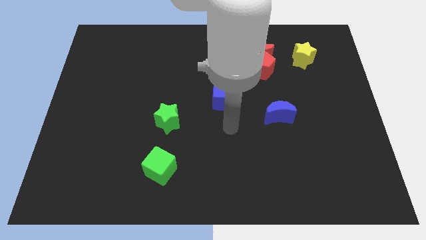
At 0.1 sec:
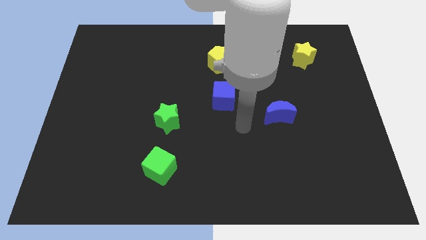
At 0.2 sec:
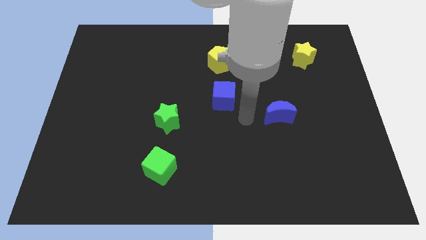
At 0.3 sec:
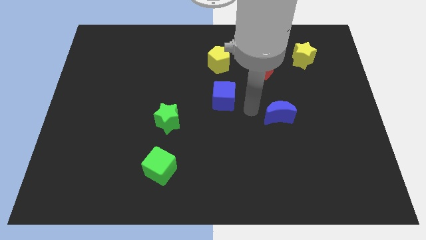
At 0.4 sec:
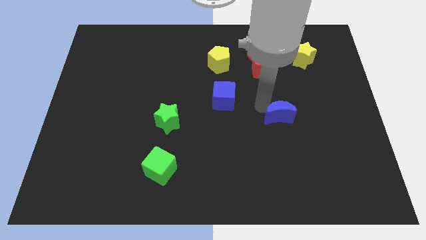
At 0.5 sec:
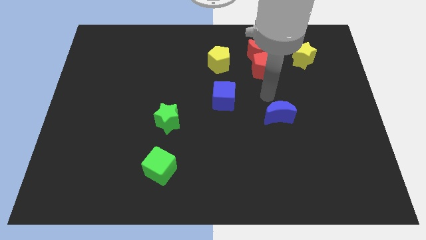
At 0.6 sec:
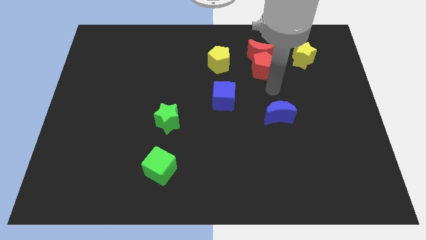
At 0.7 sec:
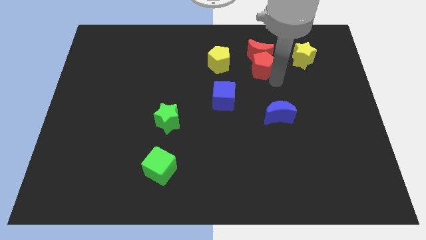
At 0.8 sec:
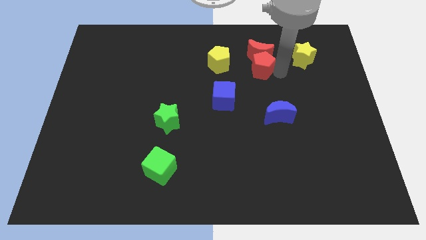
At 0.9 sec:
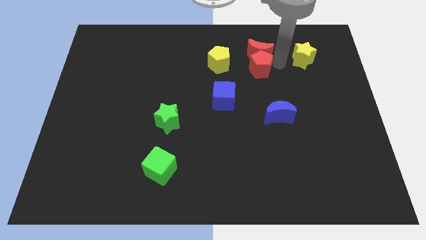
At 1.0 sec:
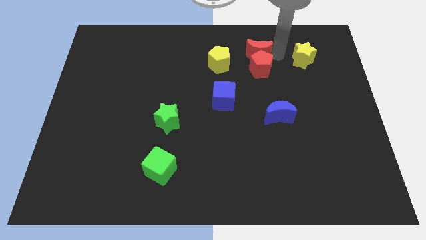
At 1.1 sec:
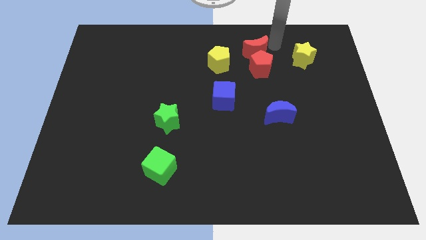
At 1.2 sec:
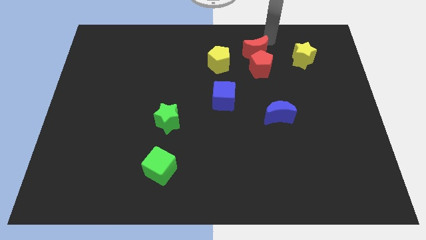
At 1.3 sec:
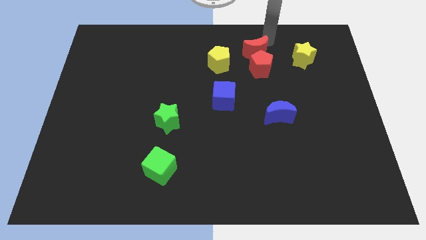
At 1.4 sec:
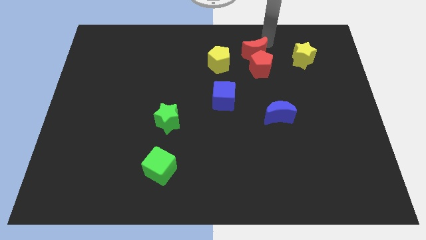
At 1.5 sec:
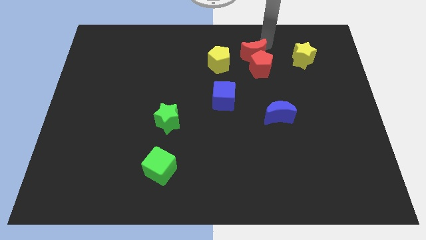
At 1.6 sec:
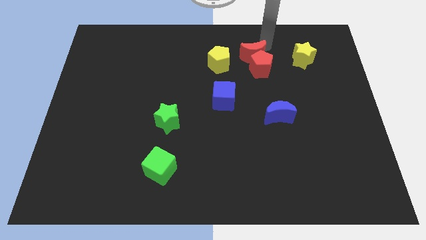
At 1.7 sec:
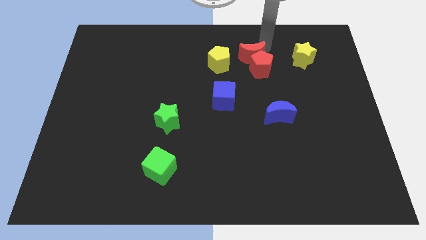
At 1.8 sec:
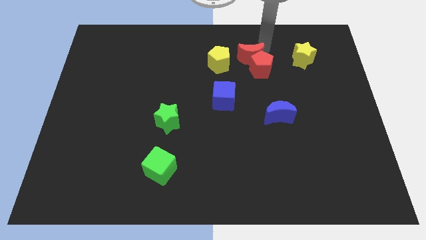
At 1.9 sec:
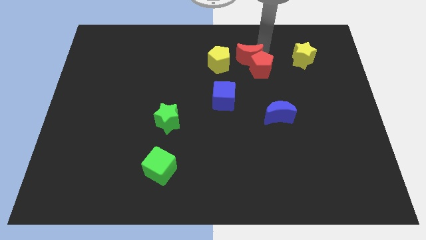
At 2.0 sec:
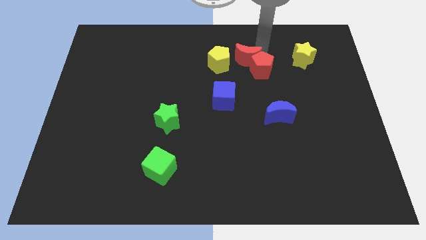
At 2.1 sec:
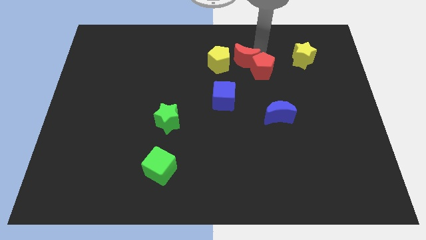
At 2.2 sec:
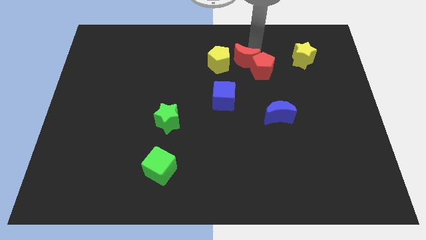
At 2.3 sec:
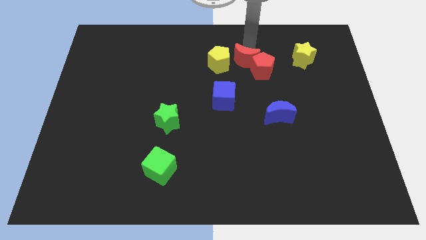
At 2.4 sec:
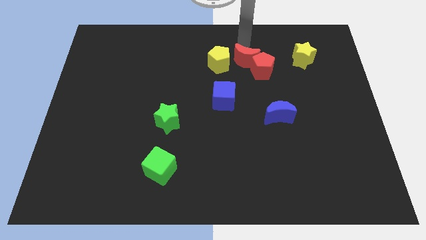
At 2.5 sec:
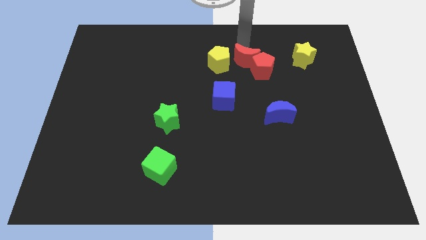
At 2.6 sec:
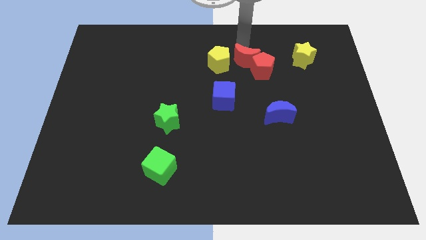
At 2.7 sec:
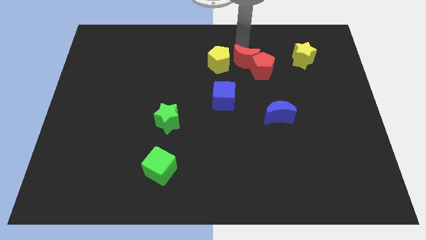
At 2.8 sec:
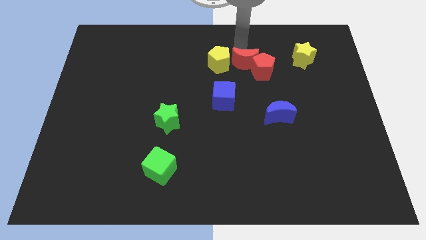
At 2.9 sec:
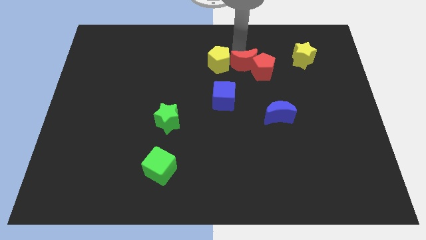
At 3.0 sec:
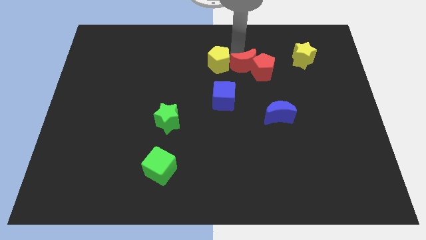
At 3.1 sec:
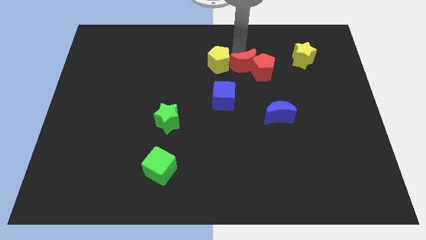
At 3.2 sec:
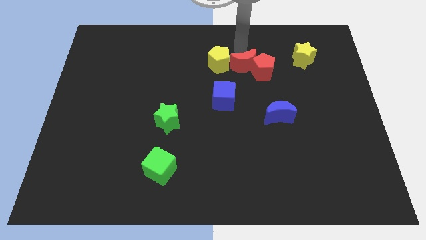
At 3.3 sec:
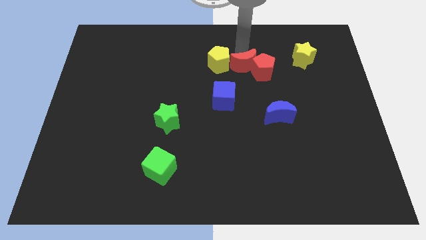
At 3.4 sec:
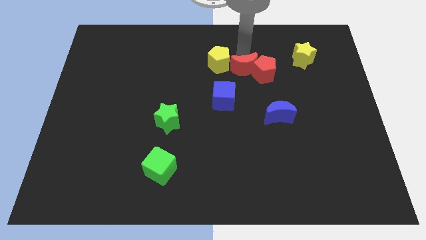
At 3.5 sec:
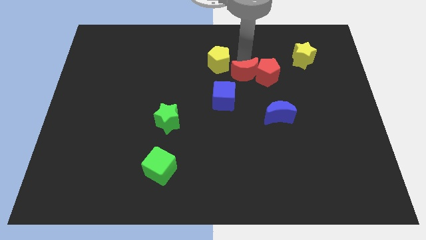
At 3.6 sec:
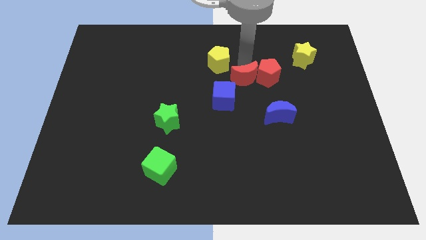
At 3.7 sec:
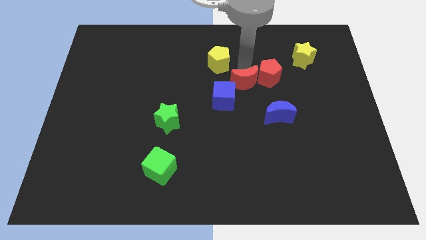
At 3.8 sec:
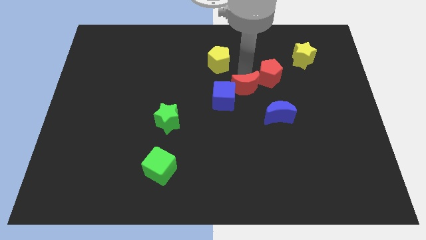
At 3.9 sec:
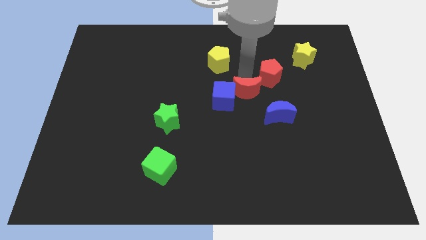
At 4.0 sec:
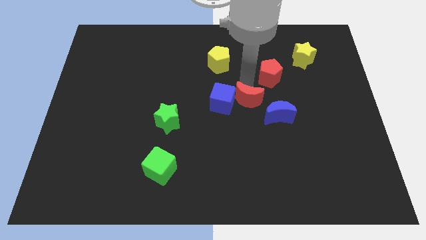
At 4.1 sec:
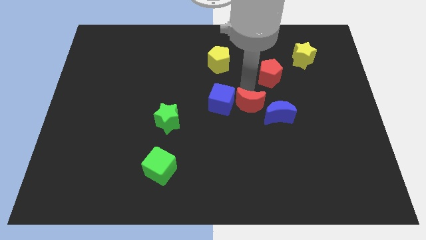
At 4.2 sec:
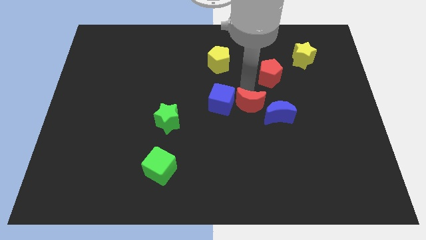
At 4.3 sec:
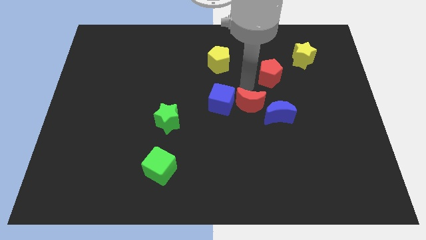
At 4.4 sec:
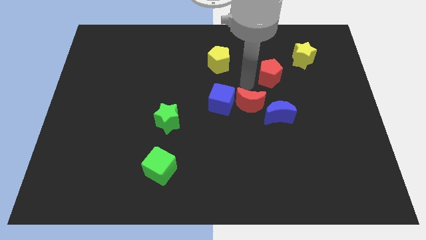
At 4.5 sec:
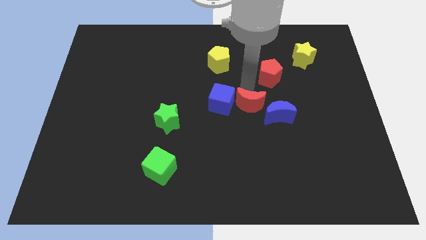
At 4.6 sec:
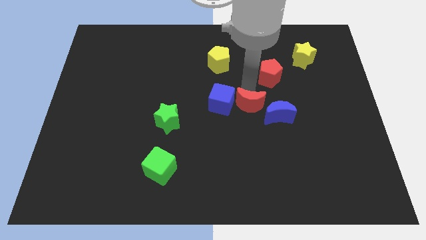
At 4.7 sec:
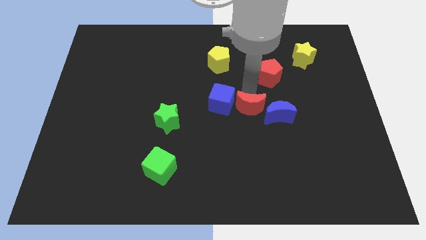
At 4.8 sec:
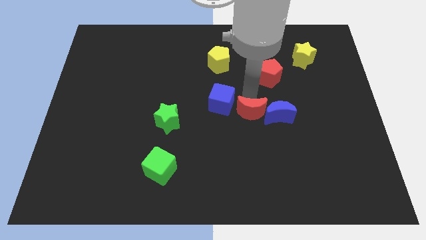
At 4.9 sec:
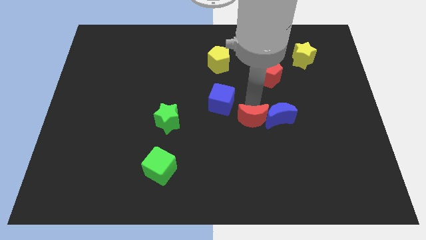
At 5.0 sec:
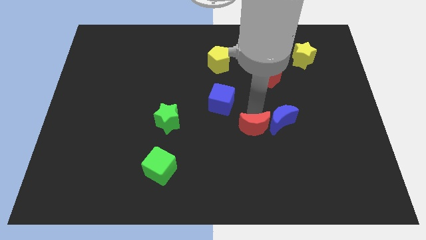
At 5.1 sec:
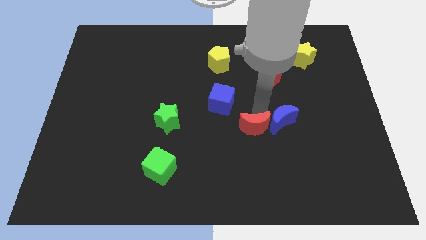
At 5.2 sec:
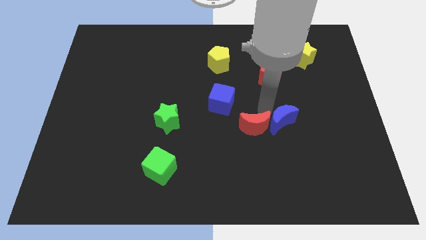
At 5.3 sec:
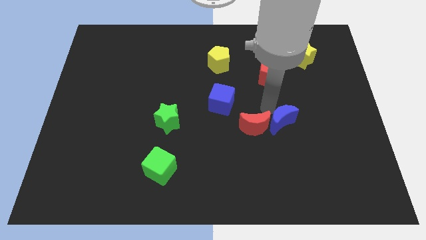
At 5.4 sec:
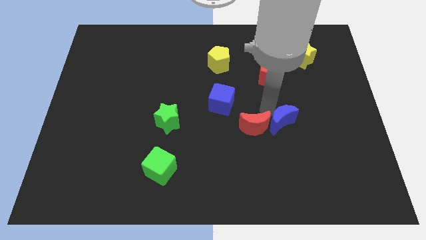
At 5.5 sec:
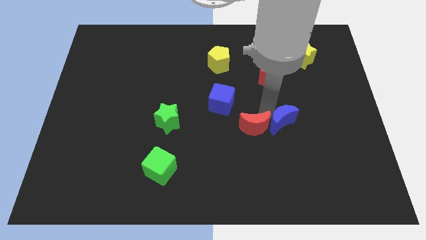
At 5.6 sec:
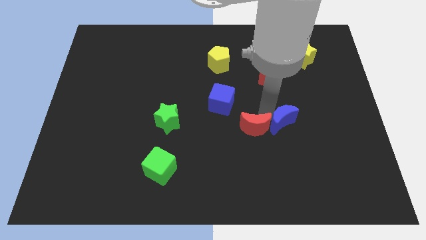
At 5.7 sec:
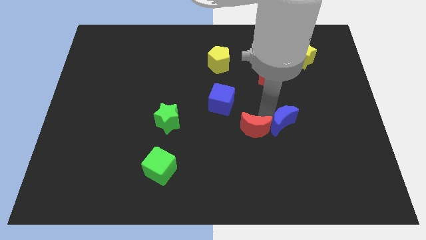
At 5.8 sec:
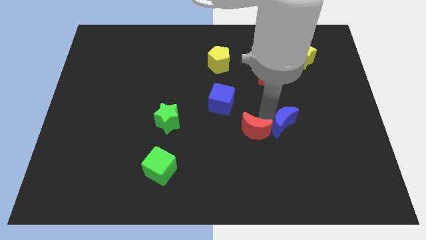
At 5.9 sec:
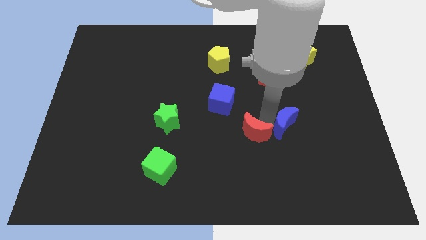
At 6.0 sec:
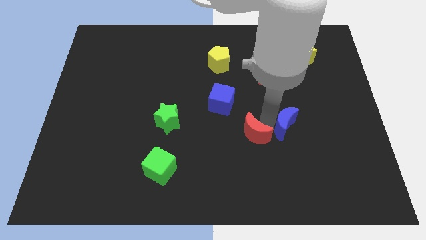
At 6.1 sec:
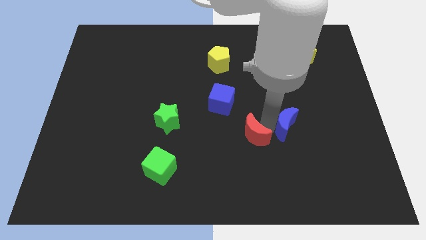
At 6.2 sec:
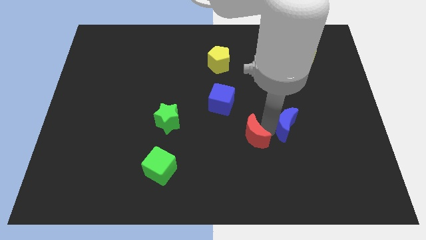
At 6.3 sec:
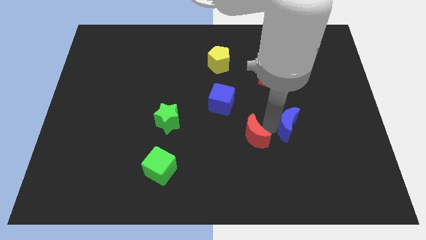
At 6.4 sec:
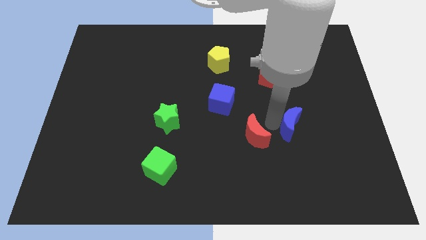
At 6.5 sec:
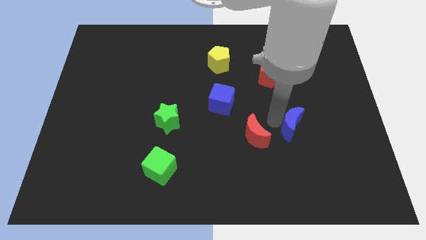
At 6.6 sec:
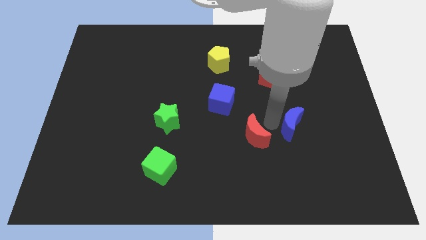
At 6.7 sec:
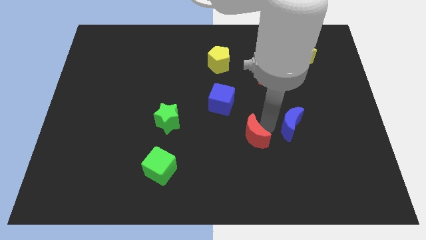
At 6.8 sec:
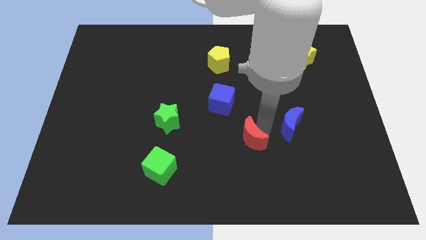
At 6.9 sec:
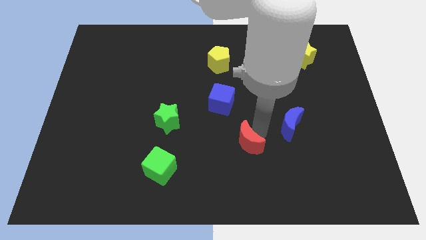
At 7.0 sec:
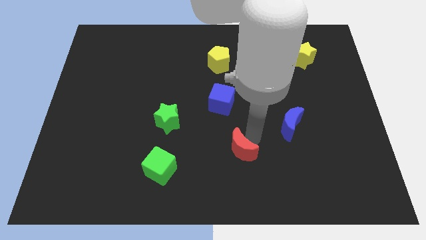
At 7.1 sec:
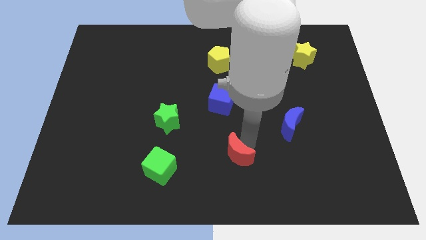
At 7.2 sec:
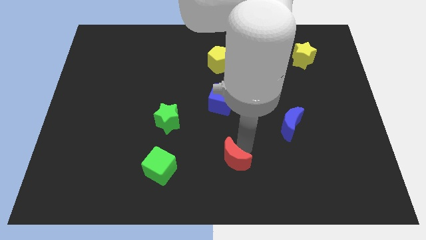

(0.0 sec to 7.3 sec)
slide the red moon to the bottom side
